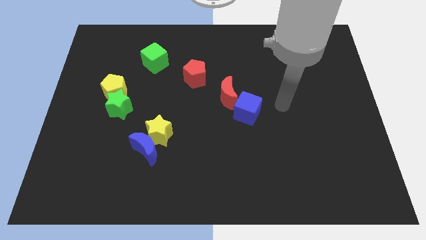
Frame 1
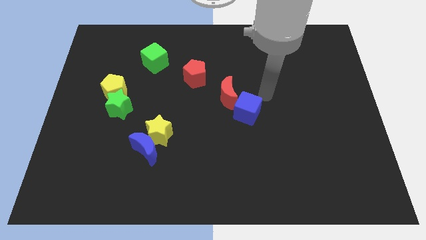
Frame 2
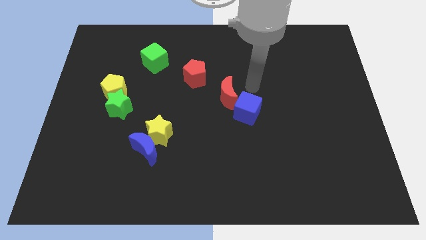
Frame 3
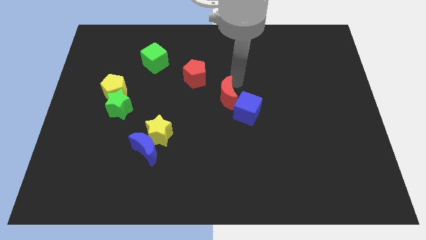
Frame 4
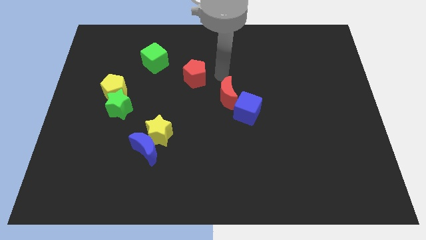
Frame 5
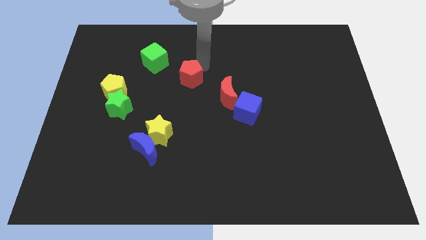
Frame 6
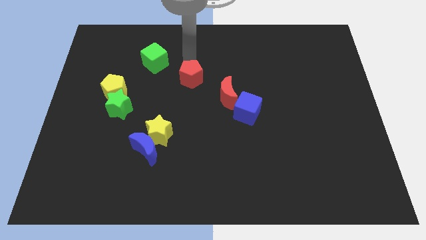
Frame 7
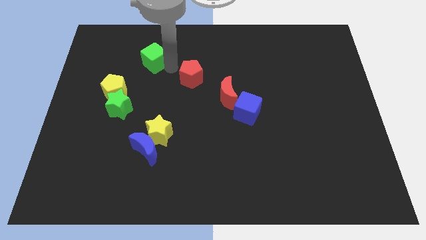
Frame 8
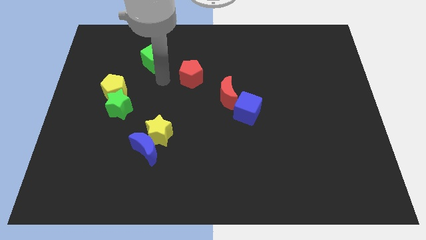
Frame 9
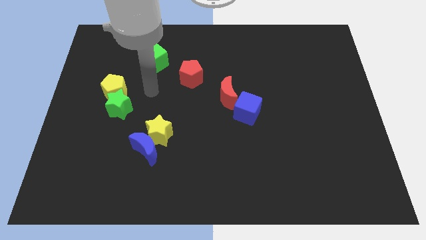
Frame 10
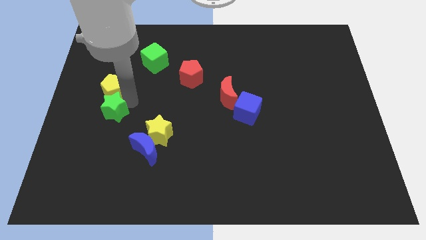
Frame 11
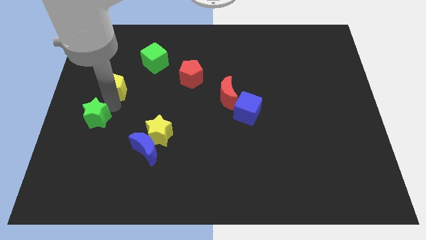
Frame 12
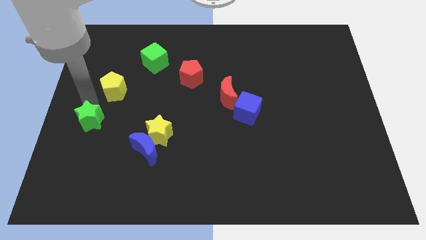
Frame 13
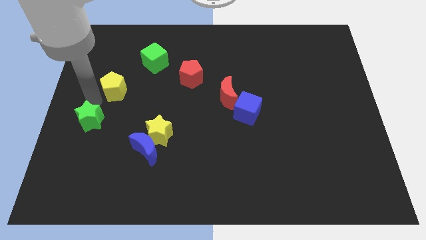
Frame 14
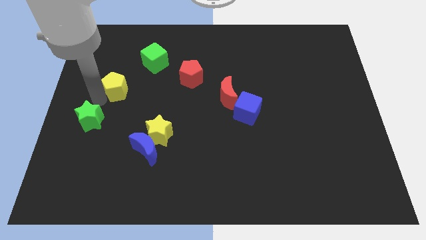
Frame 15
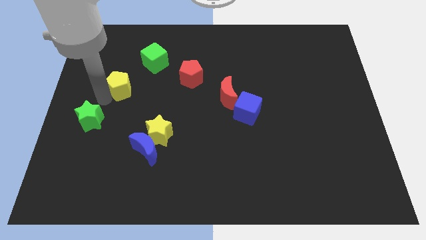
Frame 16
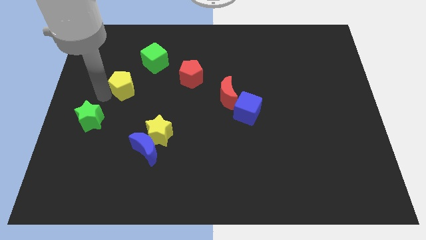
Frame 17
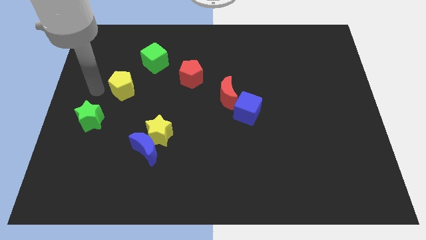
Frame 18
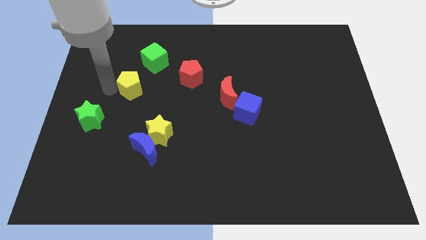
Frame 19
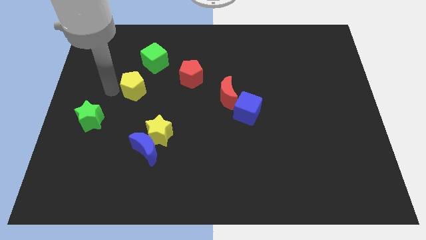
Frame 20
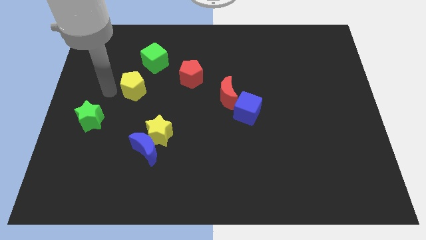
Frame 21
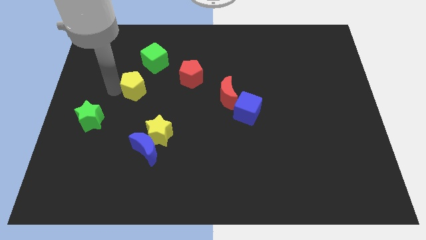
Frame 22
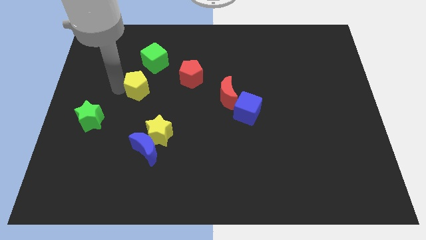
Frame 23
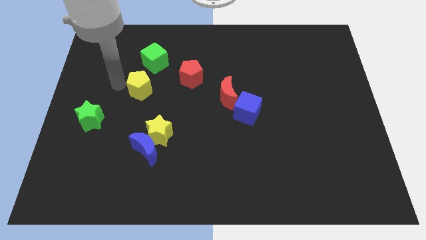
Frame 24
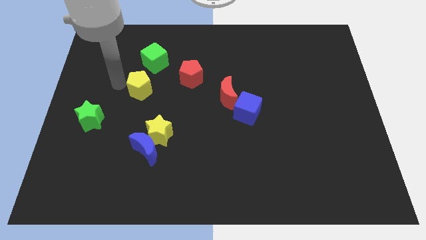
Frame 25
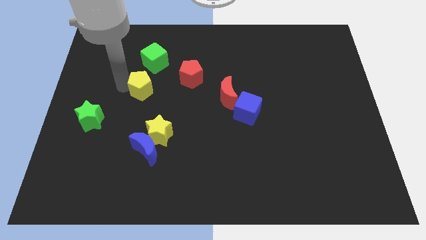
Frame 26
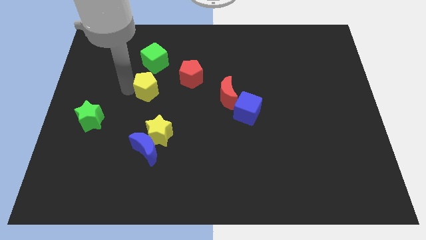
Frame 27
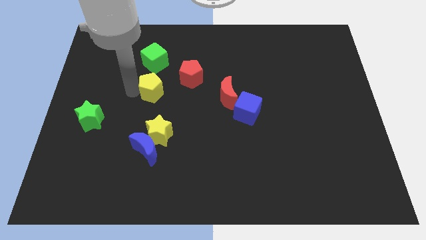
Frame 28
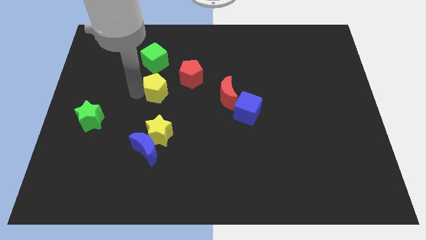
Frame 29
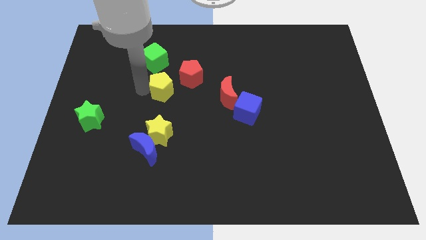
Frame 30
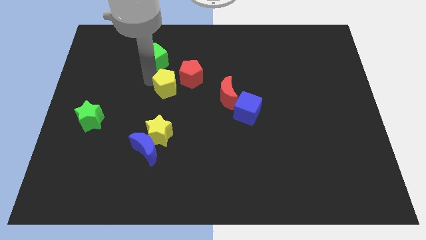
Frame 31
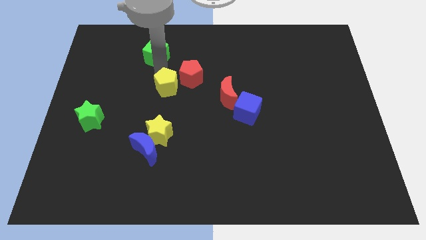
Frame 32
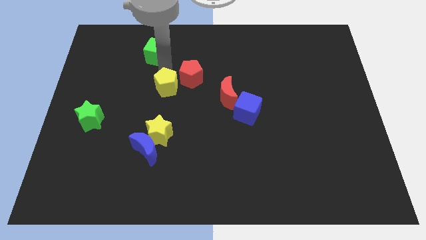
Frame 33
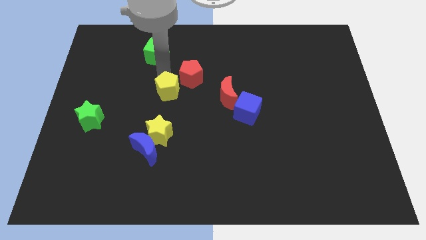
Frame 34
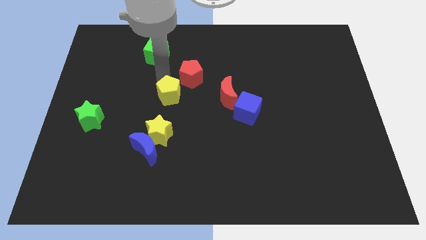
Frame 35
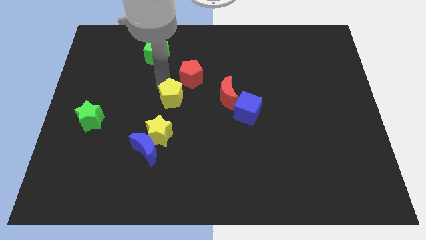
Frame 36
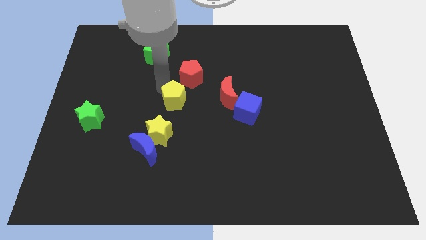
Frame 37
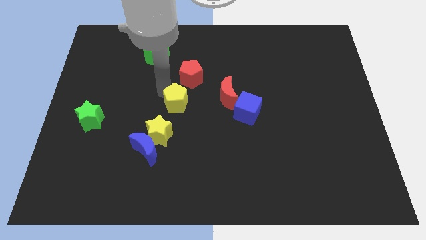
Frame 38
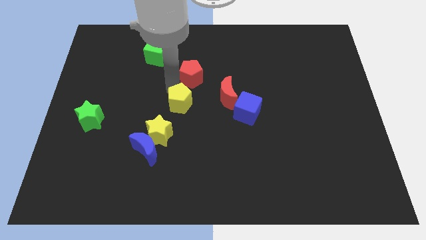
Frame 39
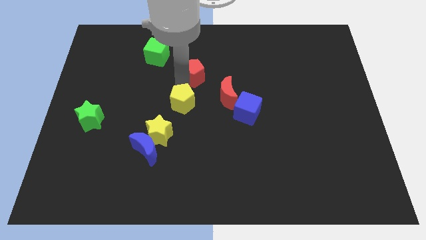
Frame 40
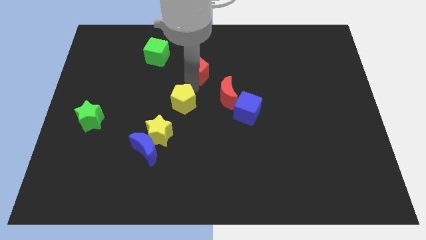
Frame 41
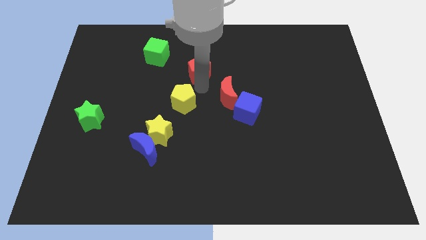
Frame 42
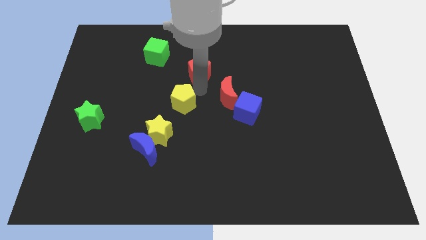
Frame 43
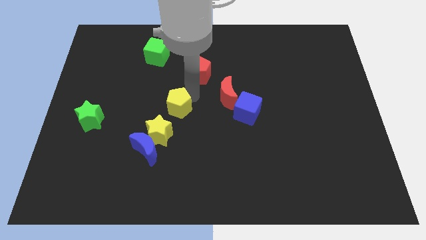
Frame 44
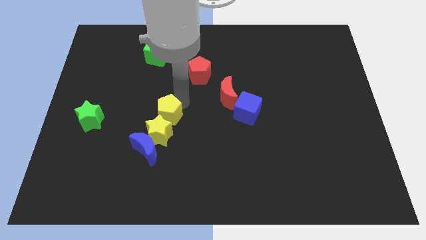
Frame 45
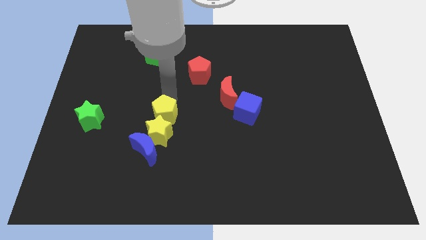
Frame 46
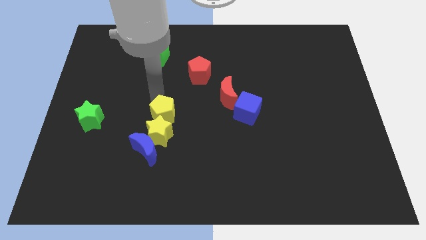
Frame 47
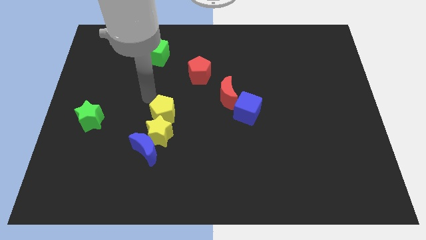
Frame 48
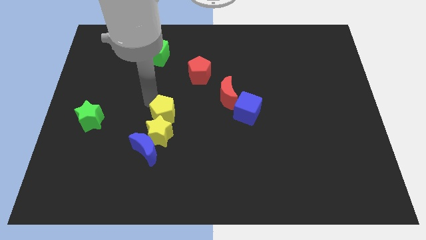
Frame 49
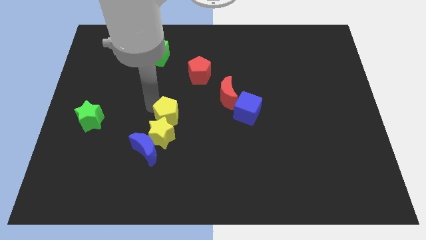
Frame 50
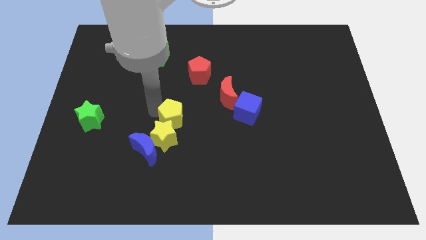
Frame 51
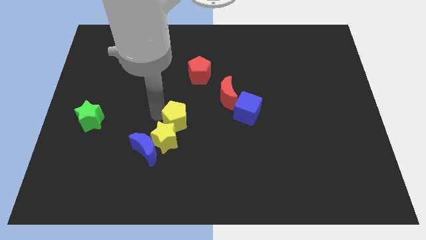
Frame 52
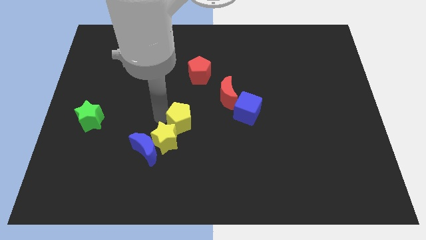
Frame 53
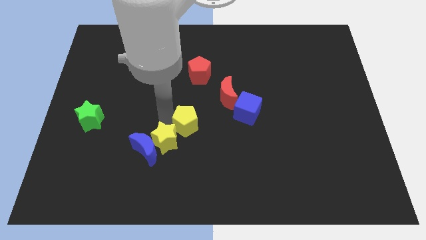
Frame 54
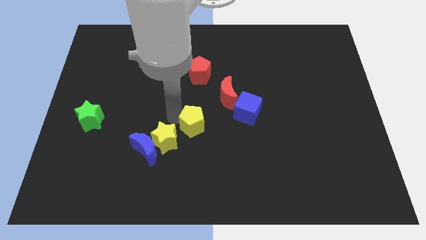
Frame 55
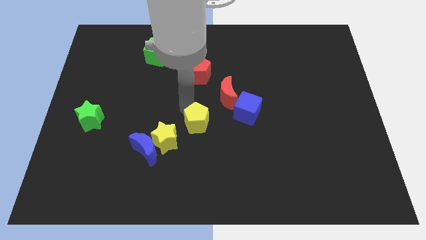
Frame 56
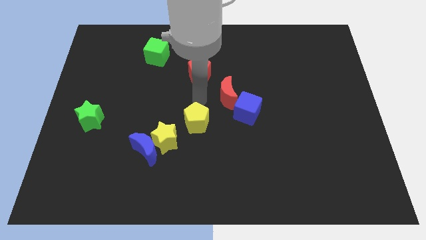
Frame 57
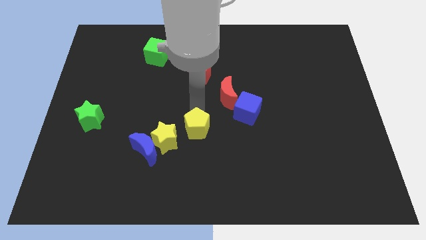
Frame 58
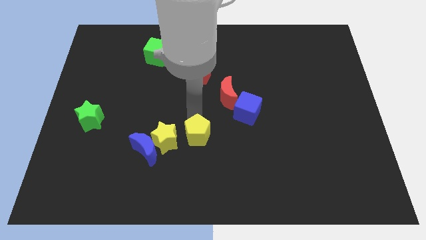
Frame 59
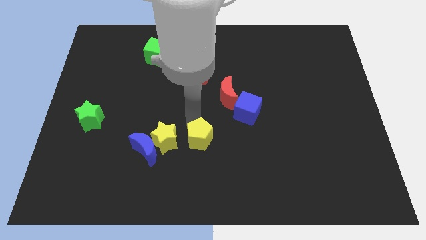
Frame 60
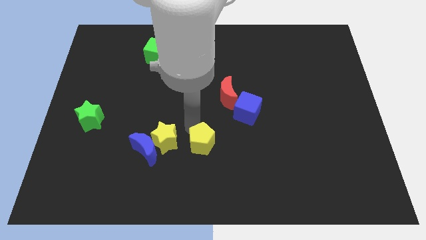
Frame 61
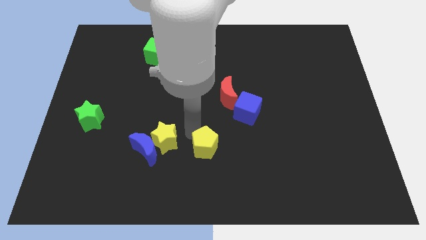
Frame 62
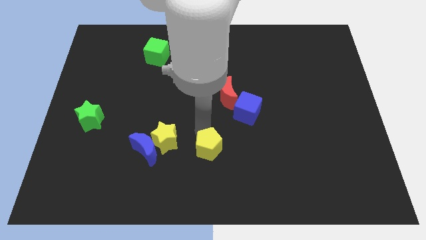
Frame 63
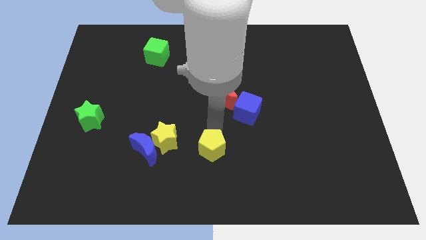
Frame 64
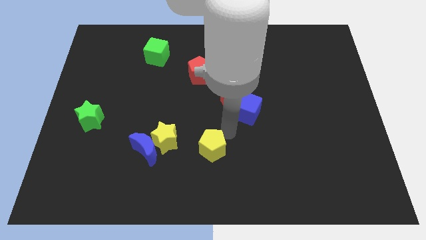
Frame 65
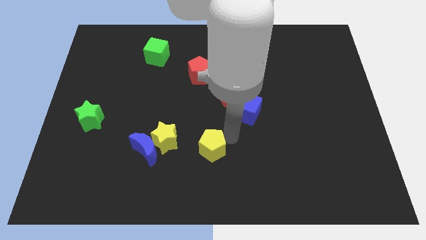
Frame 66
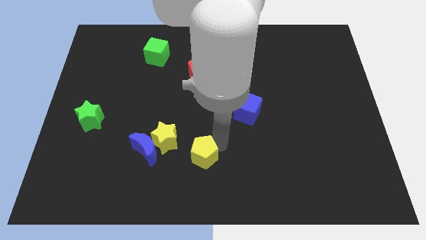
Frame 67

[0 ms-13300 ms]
slide the yellow pentagon to the bottom side
